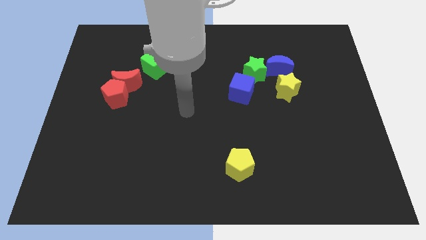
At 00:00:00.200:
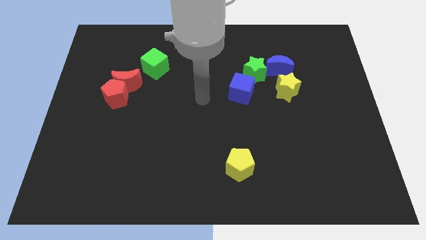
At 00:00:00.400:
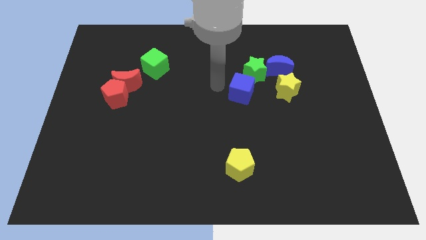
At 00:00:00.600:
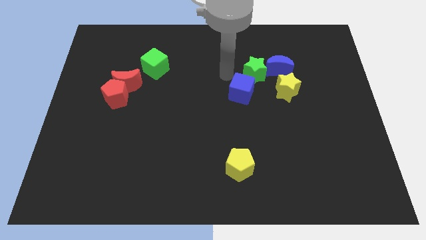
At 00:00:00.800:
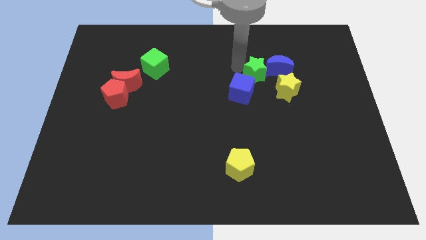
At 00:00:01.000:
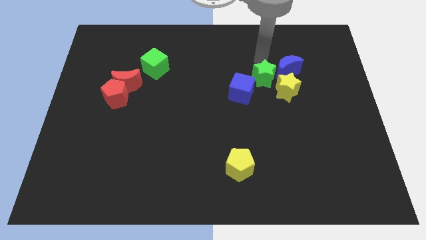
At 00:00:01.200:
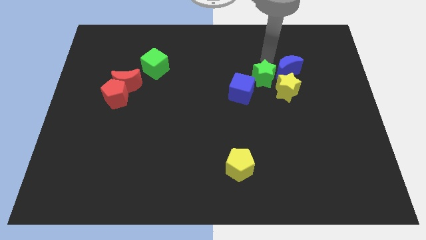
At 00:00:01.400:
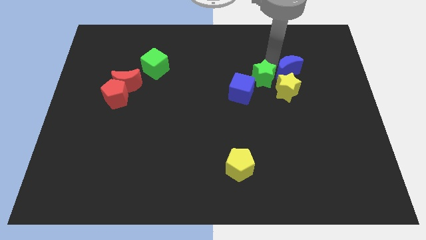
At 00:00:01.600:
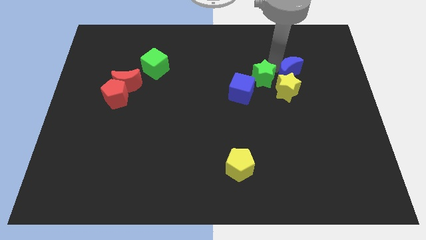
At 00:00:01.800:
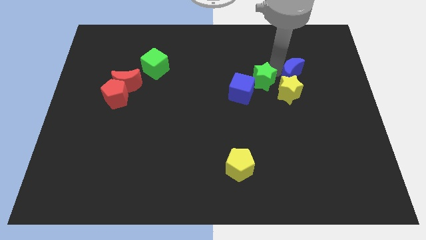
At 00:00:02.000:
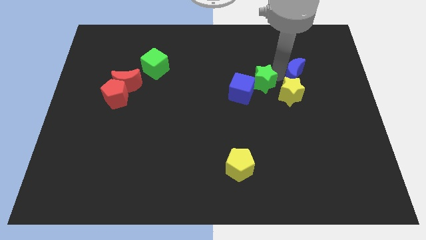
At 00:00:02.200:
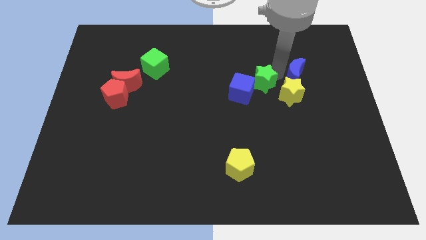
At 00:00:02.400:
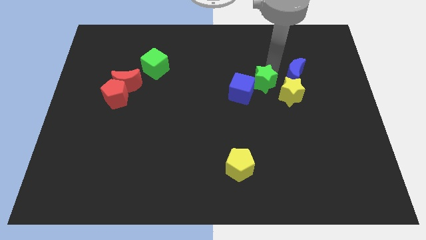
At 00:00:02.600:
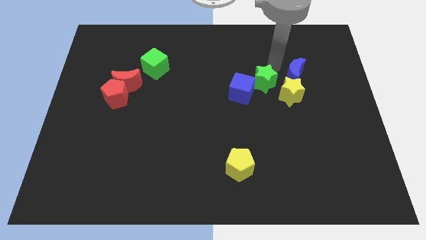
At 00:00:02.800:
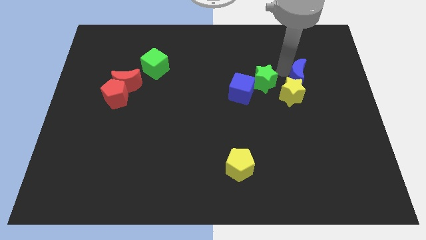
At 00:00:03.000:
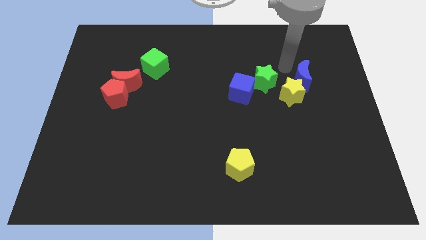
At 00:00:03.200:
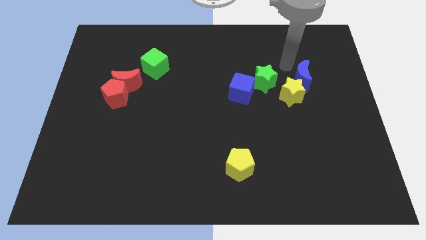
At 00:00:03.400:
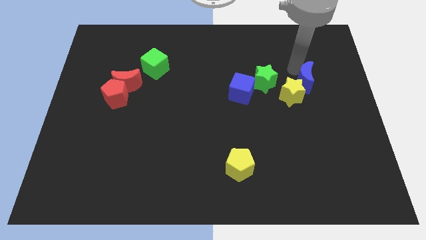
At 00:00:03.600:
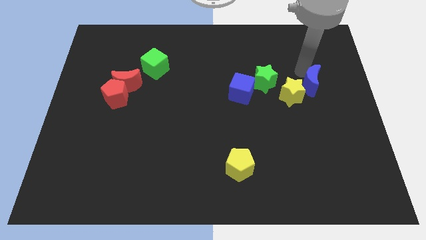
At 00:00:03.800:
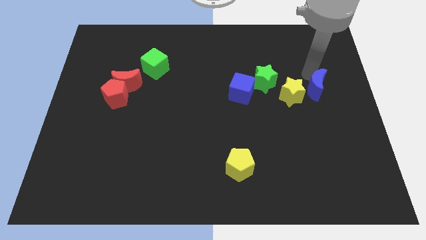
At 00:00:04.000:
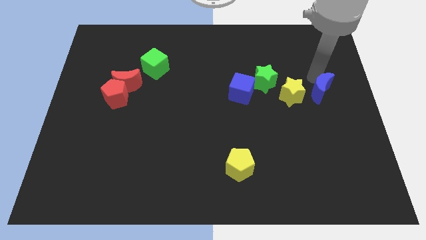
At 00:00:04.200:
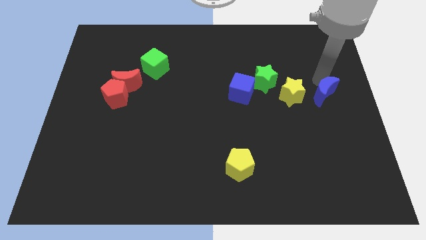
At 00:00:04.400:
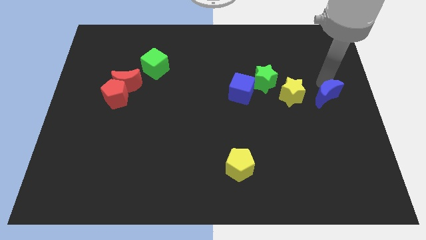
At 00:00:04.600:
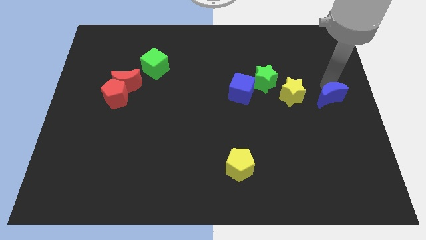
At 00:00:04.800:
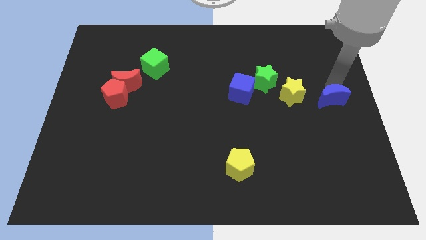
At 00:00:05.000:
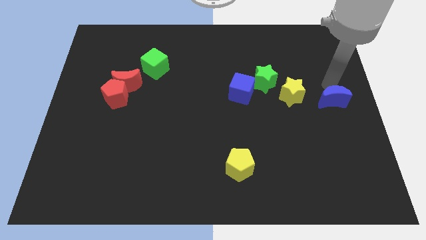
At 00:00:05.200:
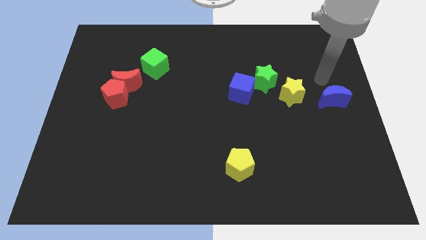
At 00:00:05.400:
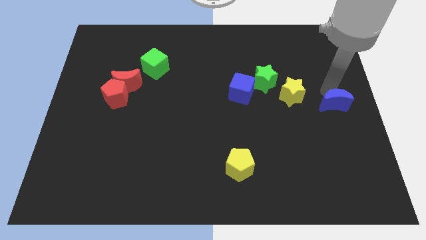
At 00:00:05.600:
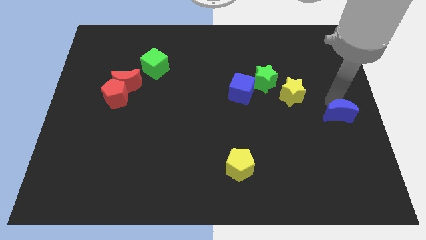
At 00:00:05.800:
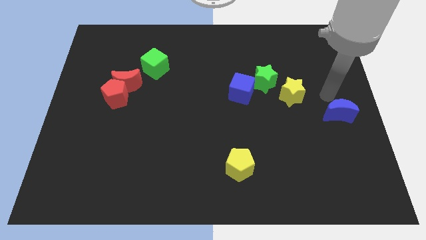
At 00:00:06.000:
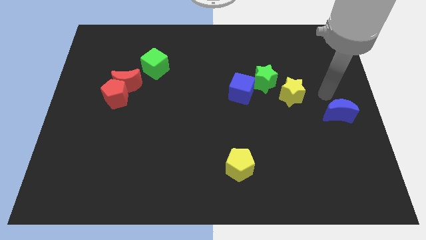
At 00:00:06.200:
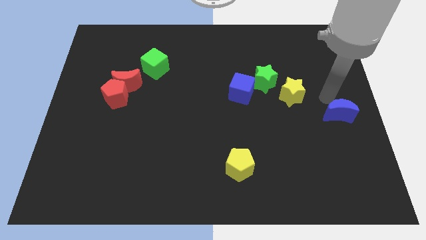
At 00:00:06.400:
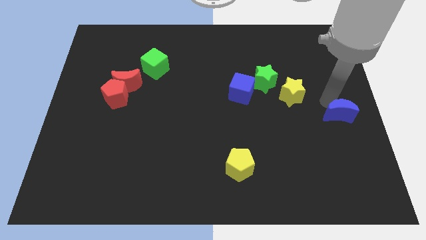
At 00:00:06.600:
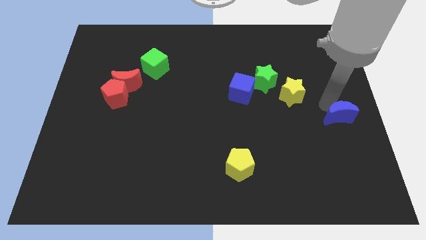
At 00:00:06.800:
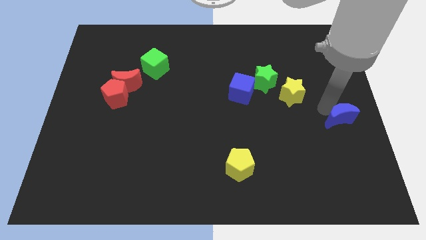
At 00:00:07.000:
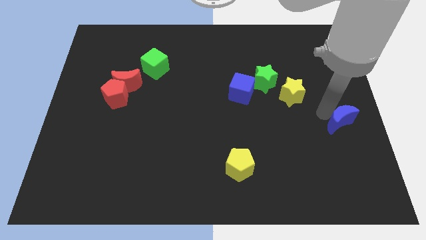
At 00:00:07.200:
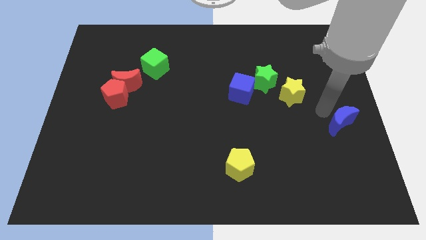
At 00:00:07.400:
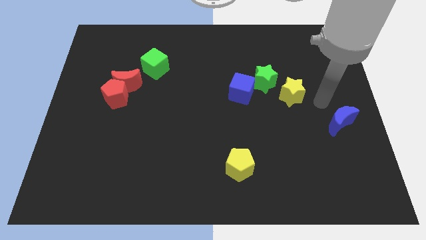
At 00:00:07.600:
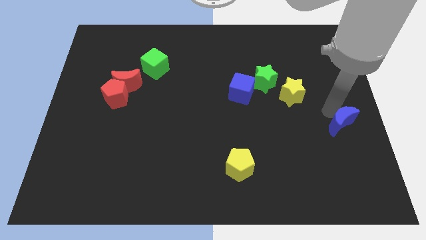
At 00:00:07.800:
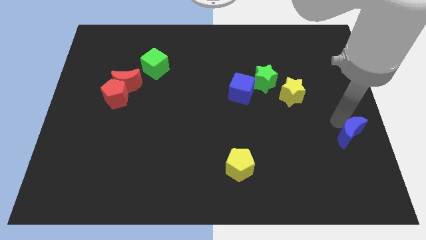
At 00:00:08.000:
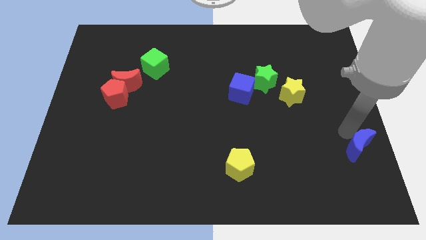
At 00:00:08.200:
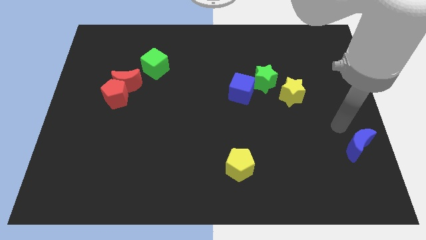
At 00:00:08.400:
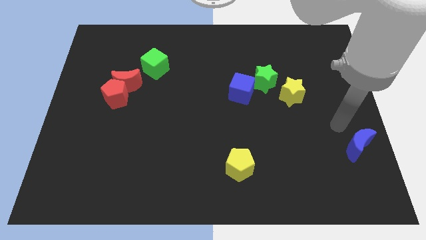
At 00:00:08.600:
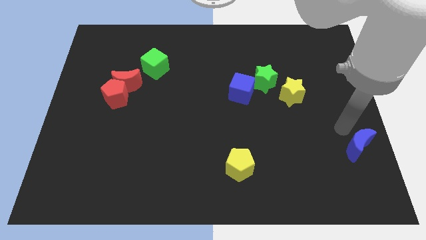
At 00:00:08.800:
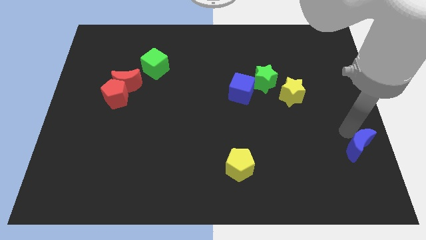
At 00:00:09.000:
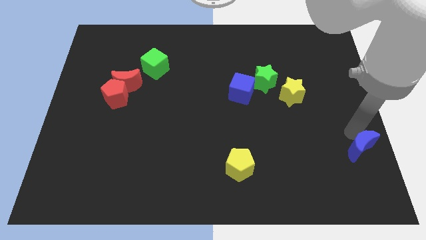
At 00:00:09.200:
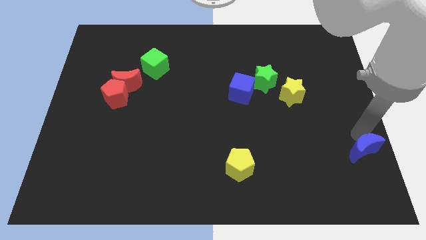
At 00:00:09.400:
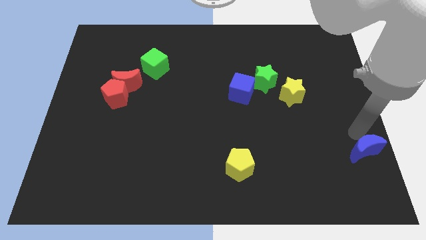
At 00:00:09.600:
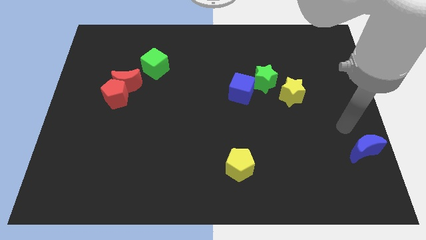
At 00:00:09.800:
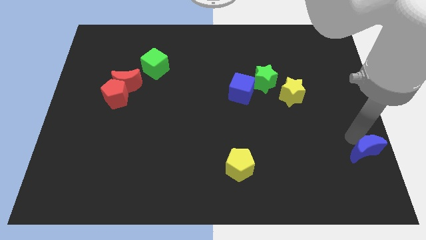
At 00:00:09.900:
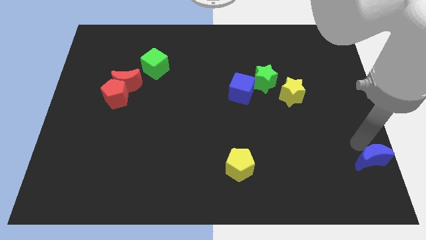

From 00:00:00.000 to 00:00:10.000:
put the blue moon to the bottom right corner

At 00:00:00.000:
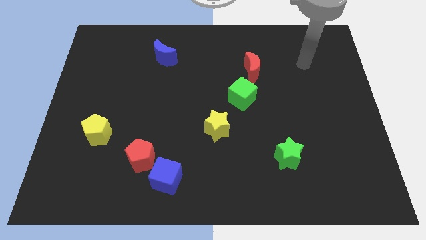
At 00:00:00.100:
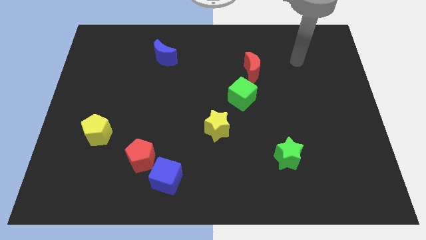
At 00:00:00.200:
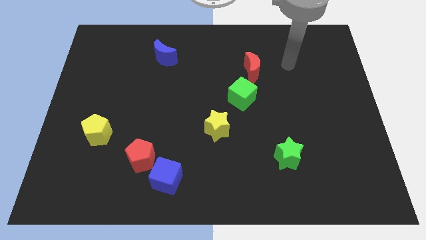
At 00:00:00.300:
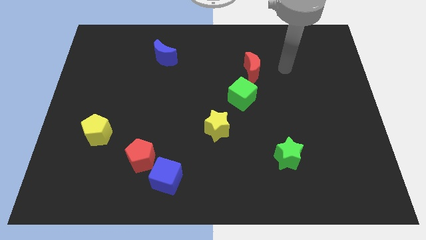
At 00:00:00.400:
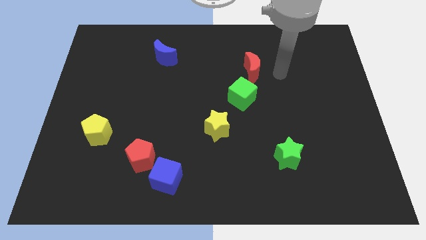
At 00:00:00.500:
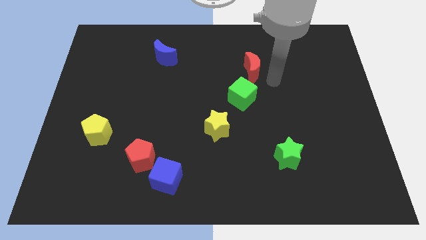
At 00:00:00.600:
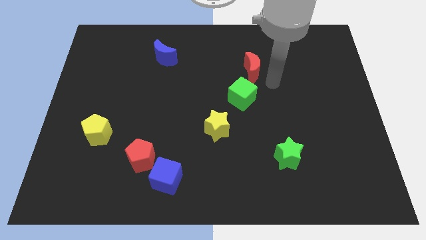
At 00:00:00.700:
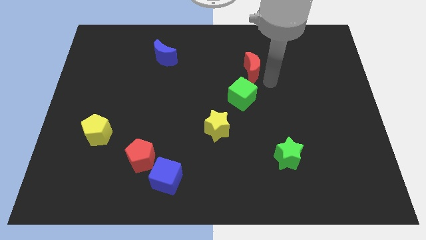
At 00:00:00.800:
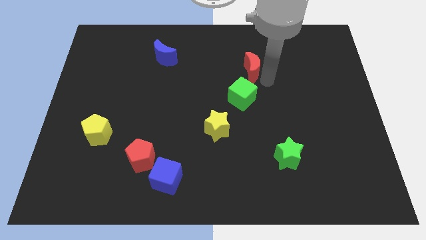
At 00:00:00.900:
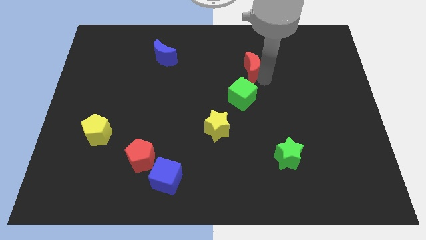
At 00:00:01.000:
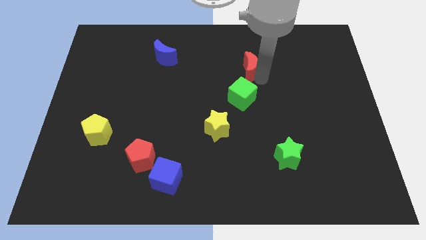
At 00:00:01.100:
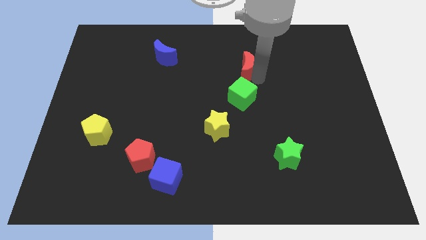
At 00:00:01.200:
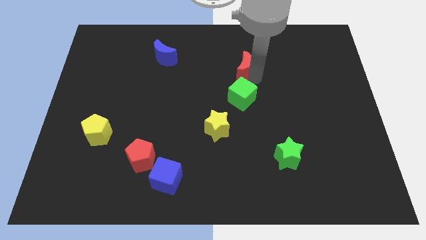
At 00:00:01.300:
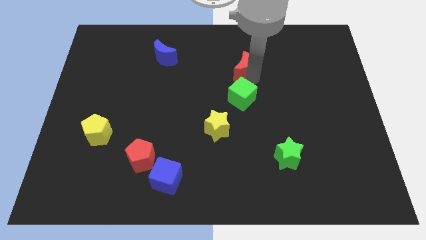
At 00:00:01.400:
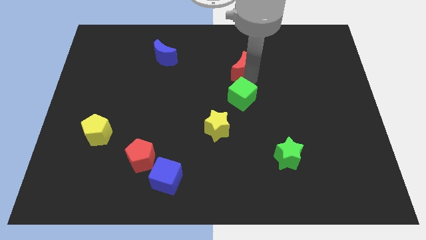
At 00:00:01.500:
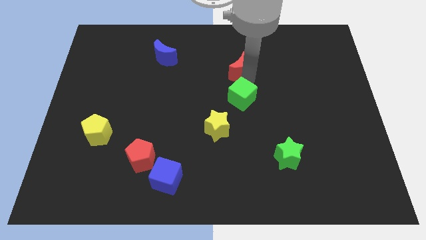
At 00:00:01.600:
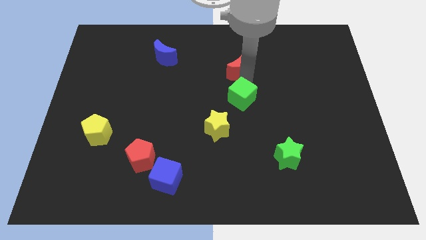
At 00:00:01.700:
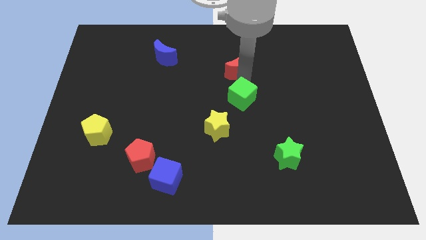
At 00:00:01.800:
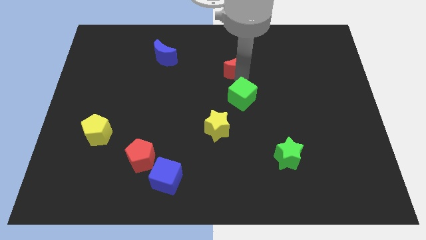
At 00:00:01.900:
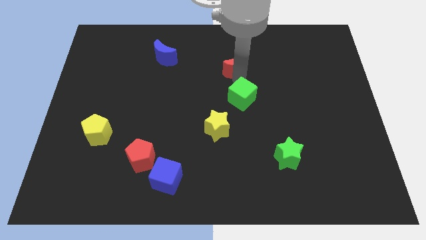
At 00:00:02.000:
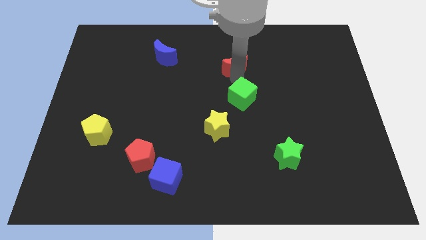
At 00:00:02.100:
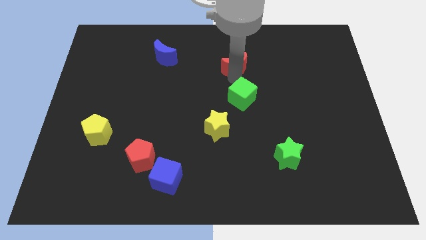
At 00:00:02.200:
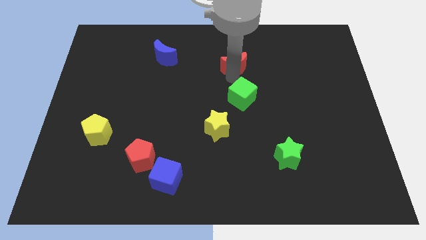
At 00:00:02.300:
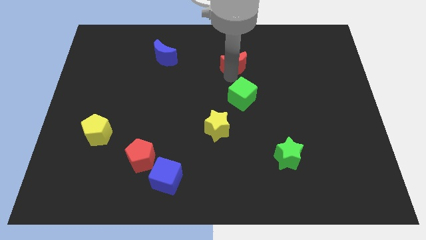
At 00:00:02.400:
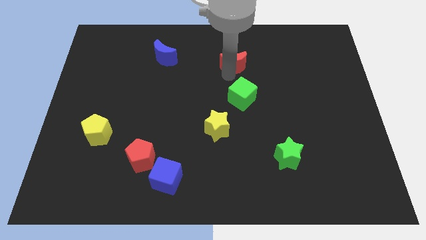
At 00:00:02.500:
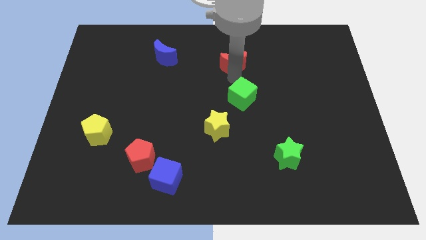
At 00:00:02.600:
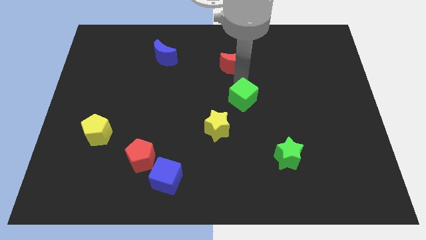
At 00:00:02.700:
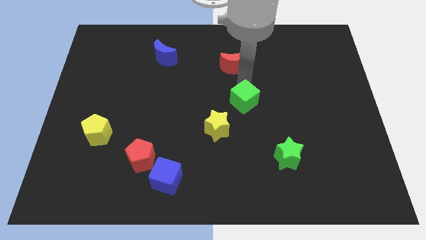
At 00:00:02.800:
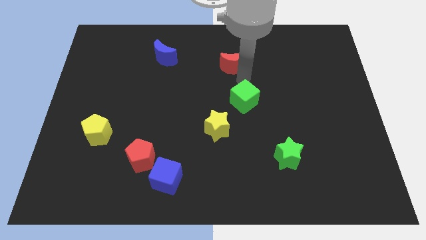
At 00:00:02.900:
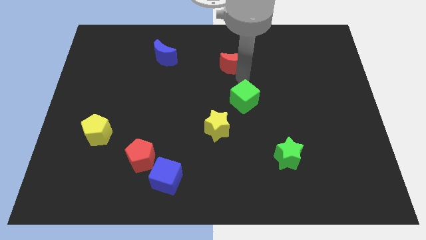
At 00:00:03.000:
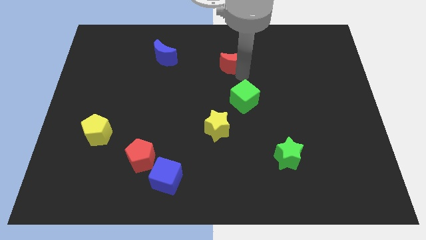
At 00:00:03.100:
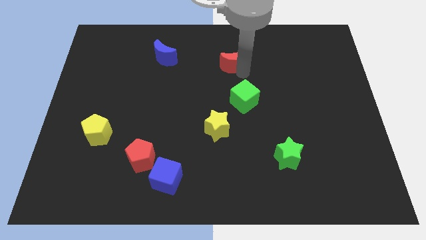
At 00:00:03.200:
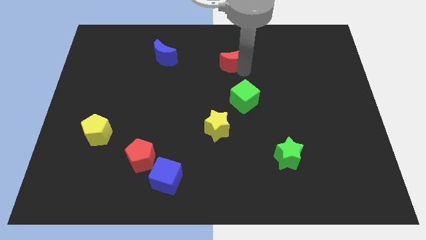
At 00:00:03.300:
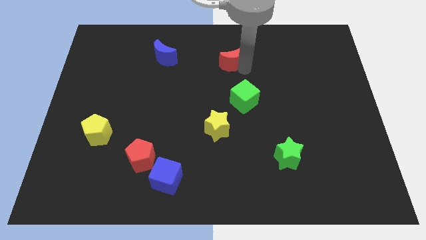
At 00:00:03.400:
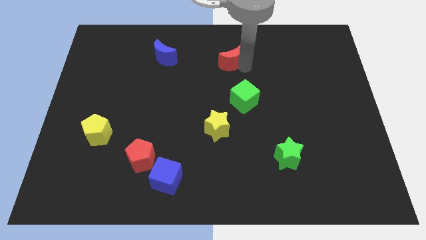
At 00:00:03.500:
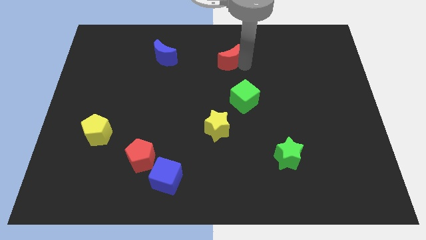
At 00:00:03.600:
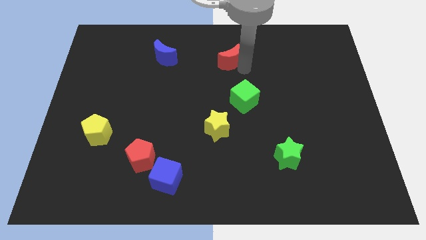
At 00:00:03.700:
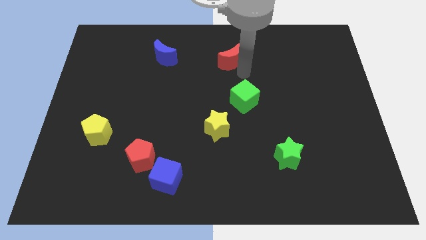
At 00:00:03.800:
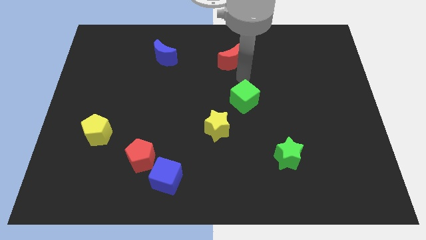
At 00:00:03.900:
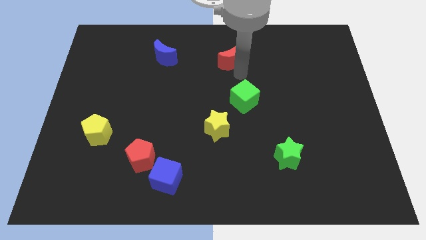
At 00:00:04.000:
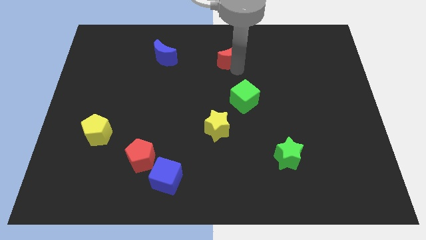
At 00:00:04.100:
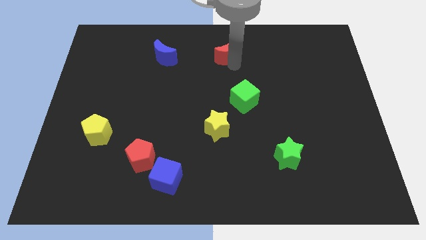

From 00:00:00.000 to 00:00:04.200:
move the red moon to the towards your base
